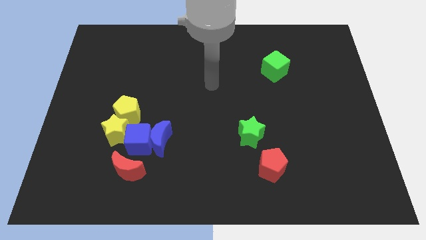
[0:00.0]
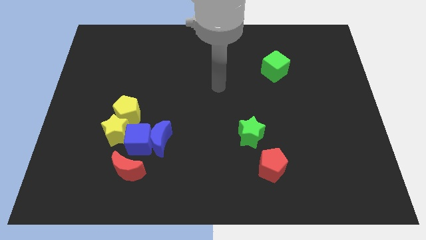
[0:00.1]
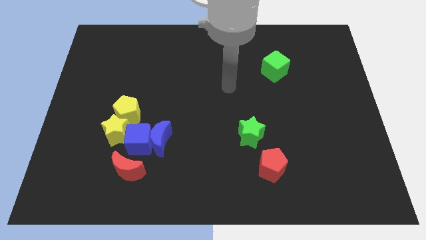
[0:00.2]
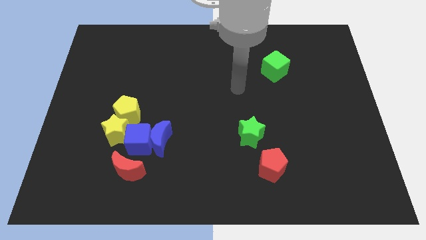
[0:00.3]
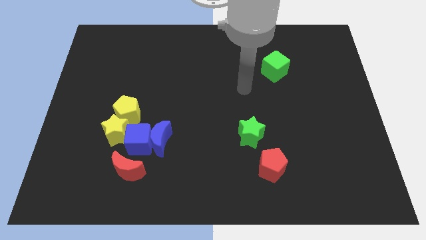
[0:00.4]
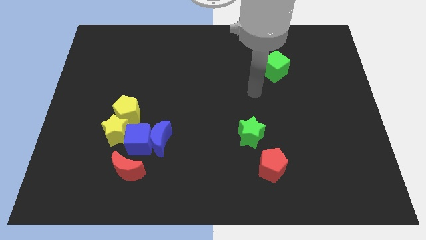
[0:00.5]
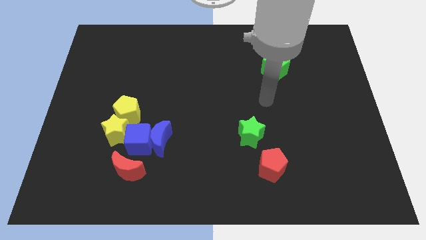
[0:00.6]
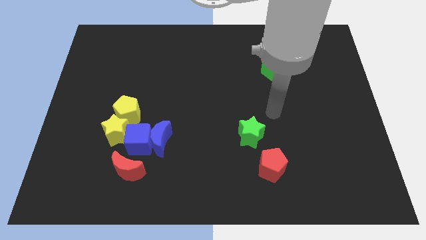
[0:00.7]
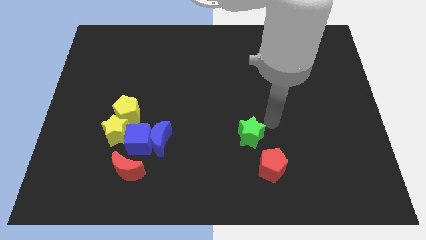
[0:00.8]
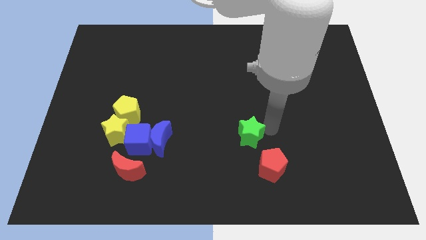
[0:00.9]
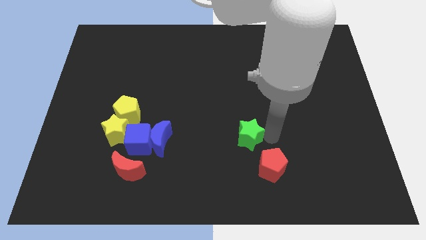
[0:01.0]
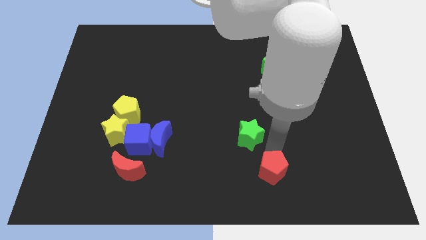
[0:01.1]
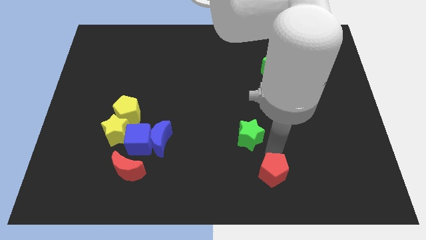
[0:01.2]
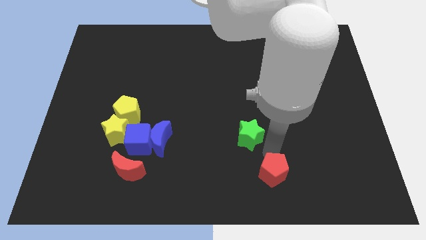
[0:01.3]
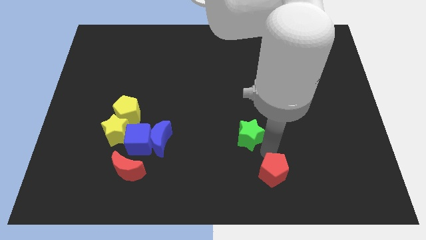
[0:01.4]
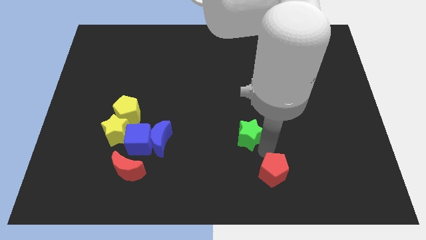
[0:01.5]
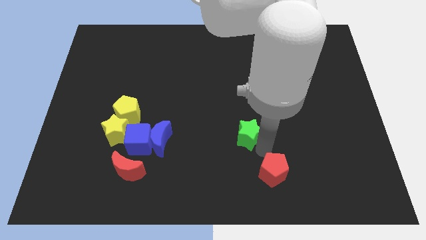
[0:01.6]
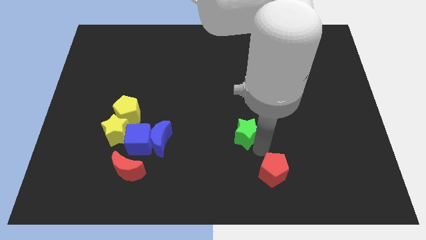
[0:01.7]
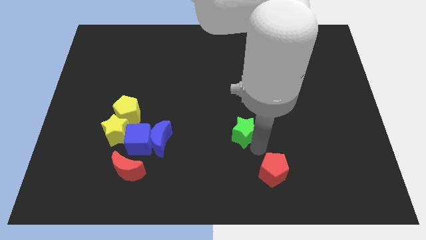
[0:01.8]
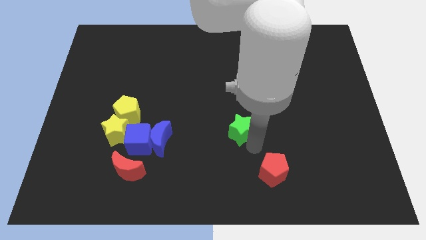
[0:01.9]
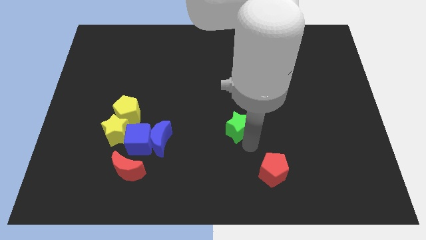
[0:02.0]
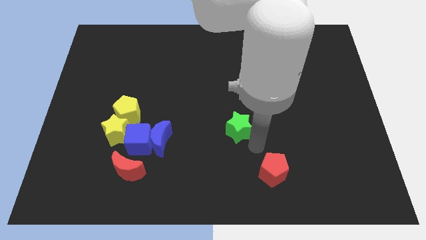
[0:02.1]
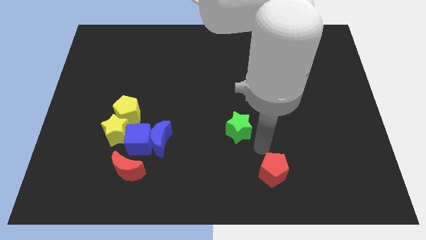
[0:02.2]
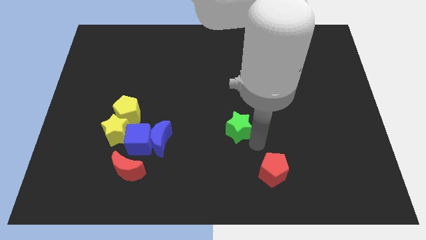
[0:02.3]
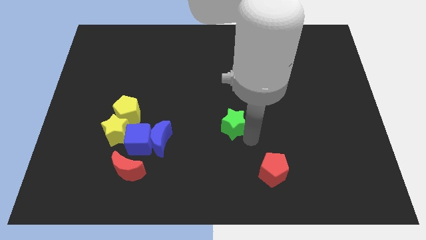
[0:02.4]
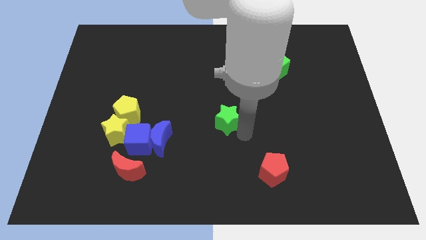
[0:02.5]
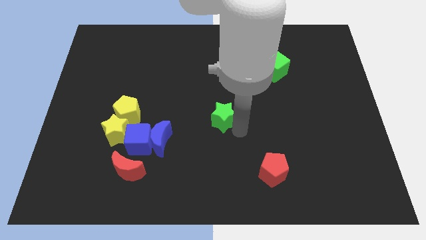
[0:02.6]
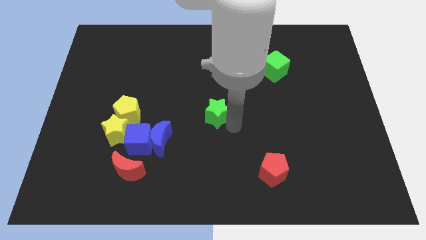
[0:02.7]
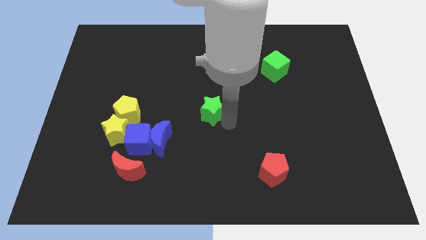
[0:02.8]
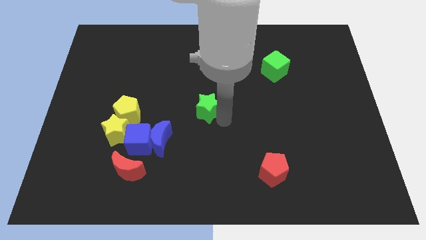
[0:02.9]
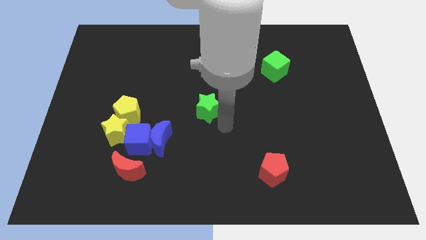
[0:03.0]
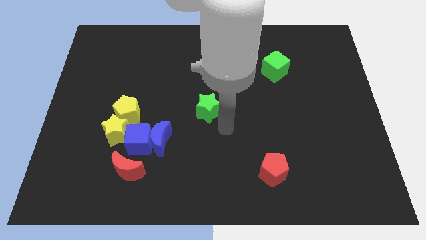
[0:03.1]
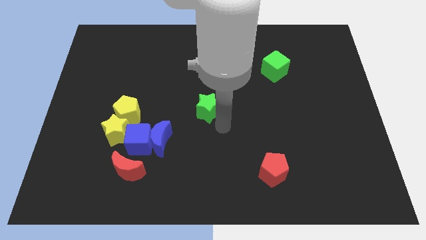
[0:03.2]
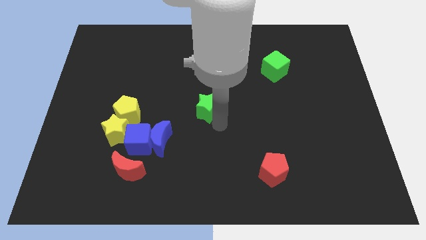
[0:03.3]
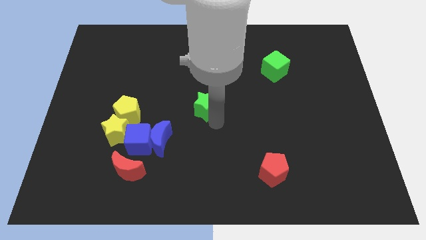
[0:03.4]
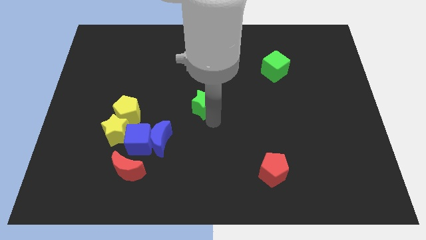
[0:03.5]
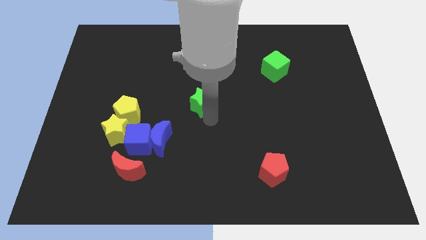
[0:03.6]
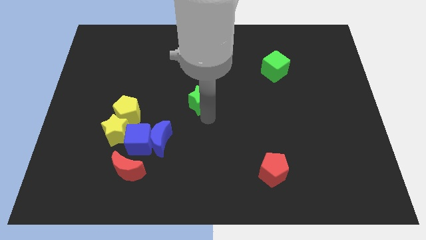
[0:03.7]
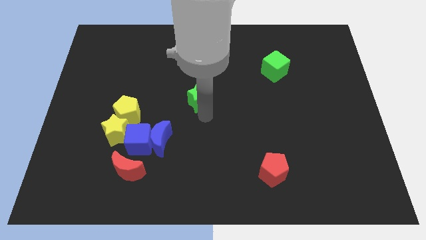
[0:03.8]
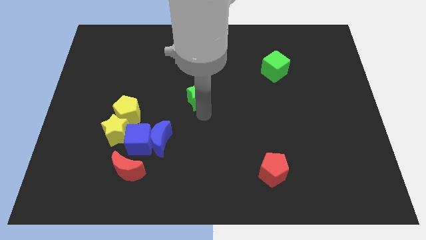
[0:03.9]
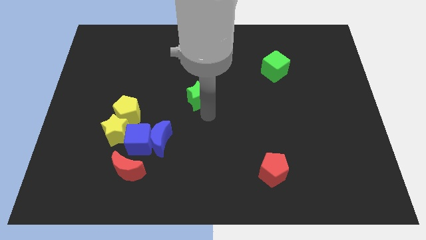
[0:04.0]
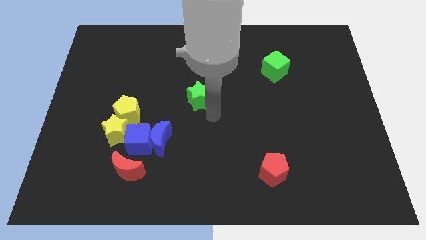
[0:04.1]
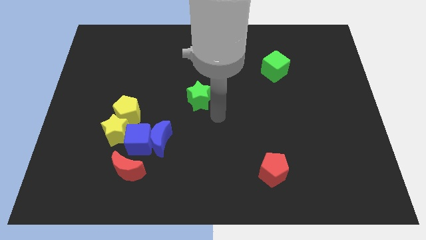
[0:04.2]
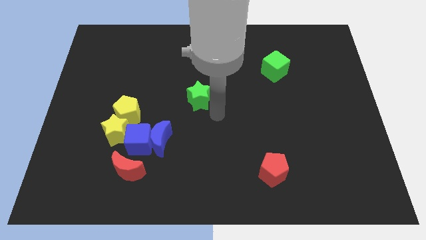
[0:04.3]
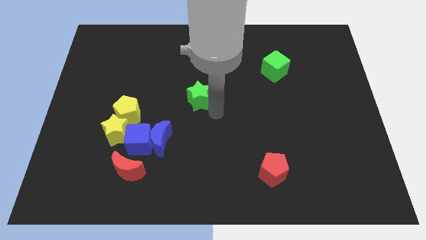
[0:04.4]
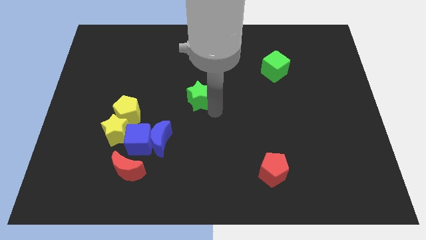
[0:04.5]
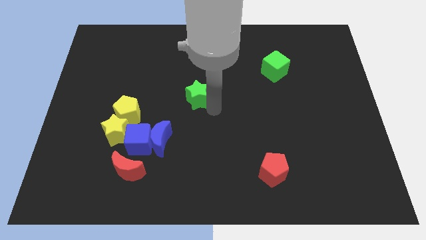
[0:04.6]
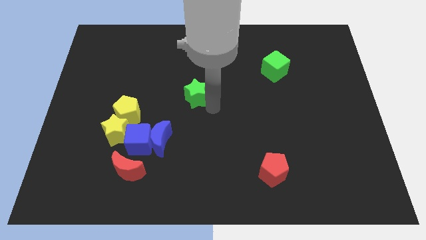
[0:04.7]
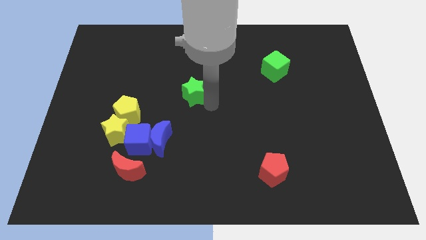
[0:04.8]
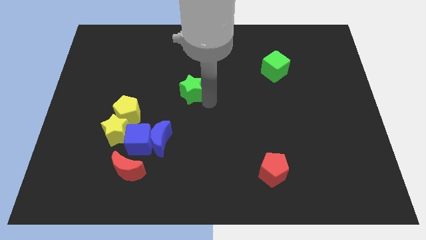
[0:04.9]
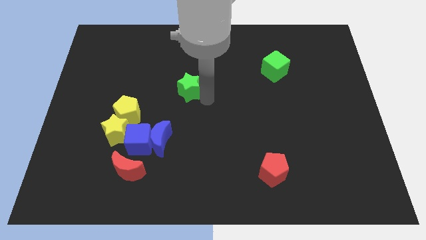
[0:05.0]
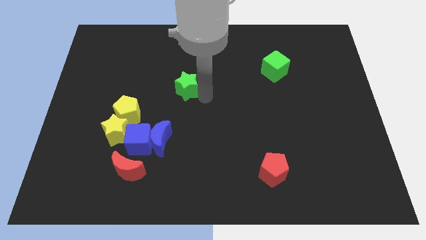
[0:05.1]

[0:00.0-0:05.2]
move the green star upwards and left diagonally

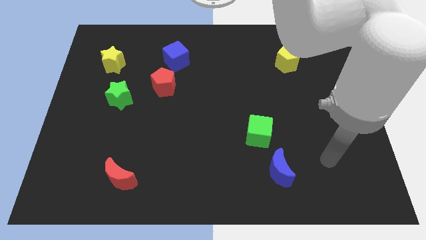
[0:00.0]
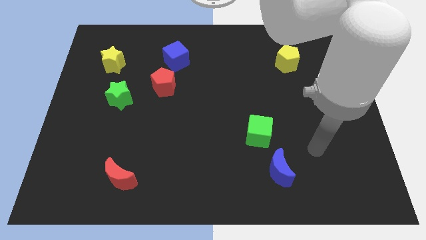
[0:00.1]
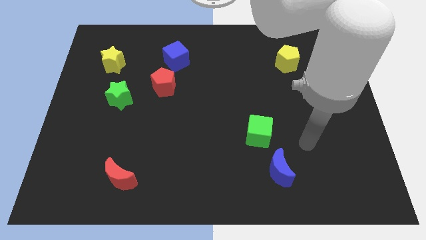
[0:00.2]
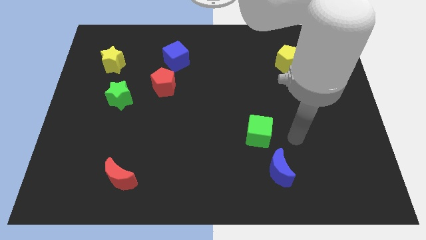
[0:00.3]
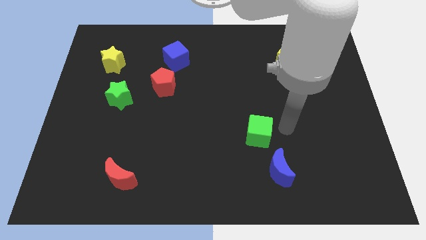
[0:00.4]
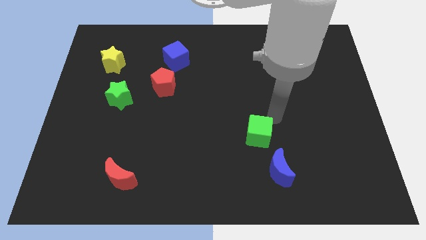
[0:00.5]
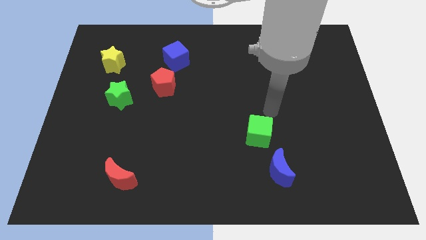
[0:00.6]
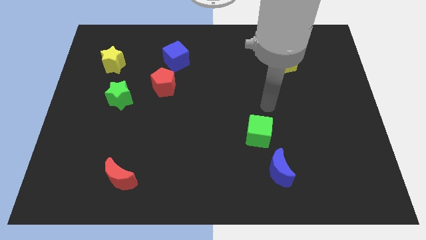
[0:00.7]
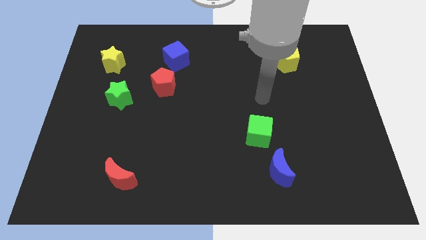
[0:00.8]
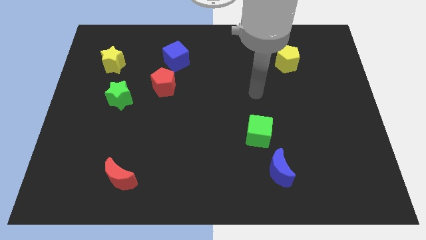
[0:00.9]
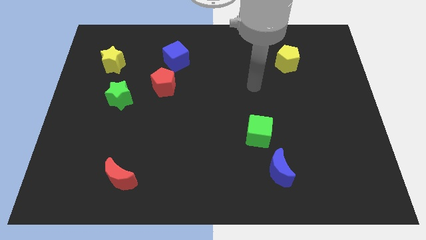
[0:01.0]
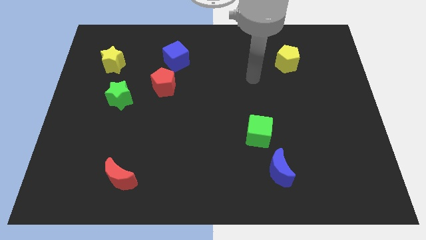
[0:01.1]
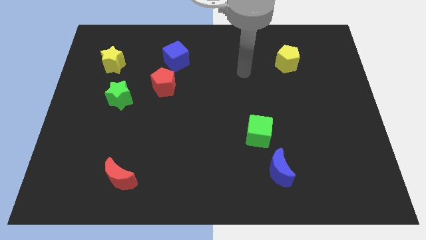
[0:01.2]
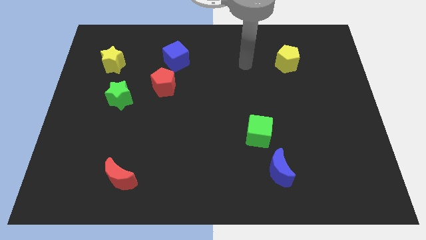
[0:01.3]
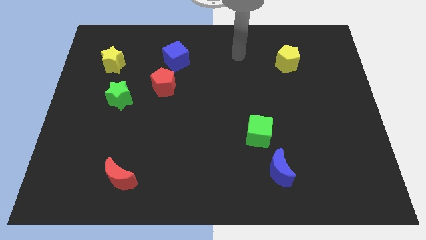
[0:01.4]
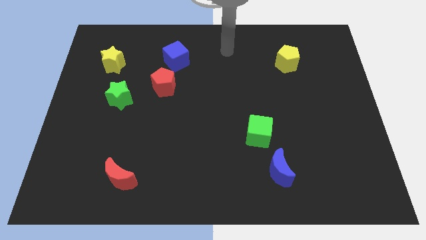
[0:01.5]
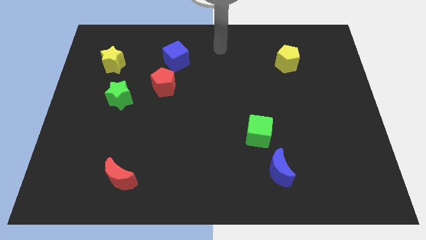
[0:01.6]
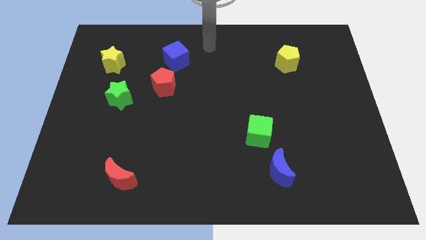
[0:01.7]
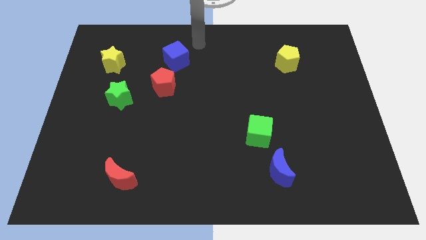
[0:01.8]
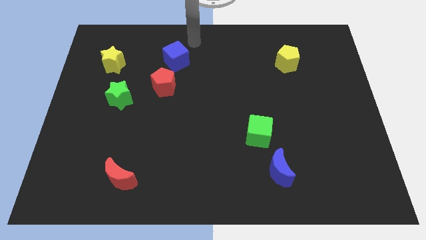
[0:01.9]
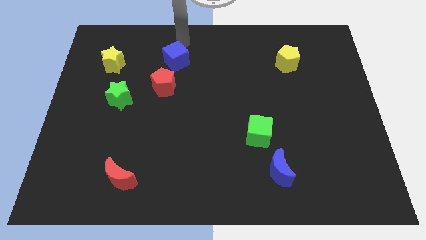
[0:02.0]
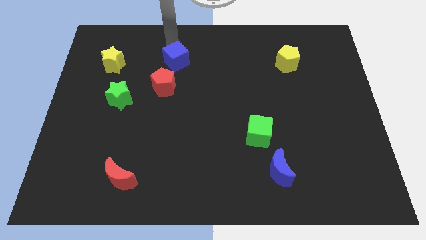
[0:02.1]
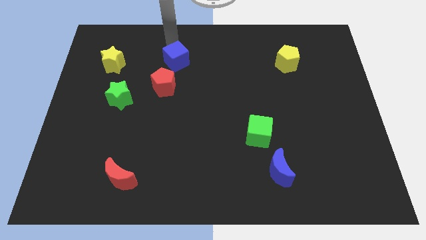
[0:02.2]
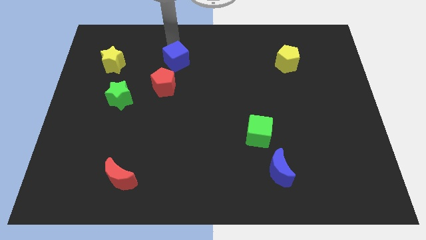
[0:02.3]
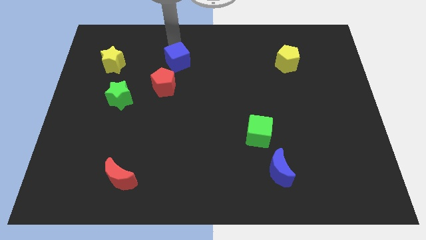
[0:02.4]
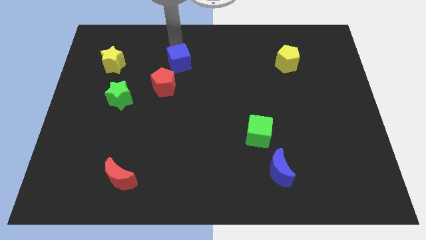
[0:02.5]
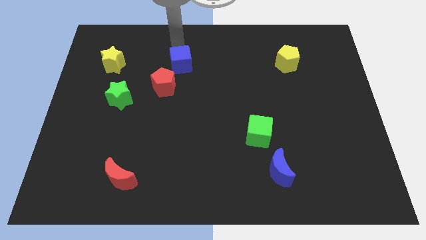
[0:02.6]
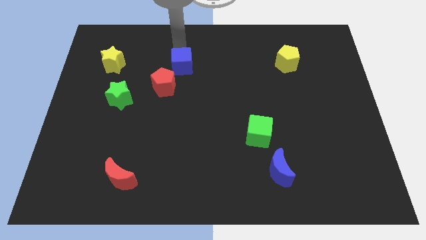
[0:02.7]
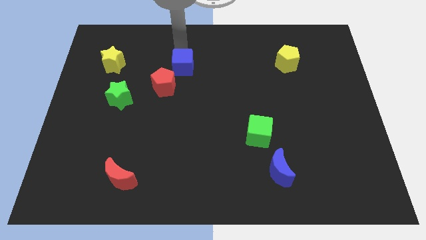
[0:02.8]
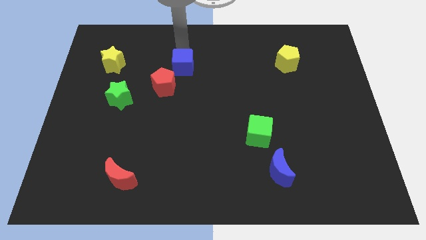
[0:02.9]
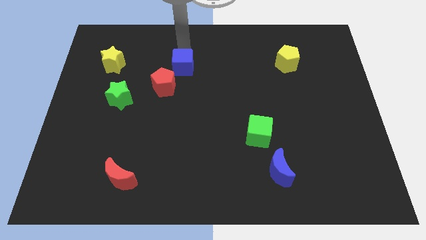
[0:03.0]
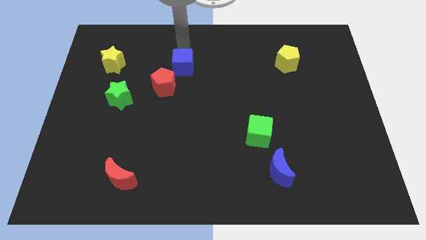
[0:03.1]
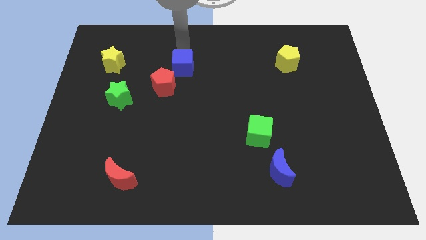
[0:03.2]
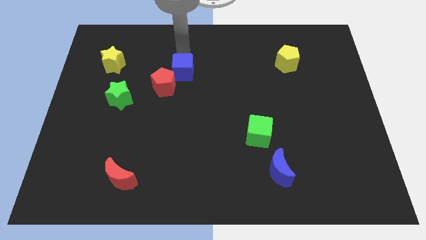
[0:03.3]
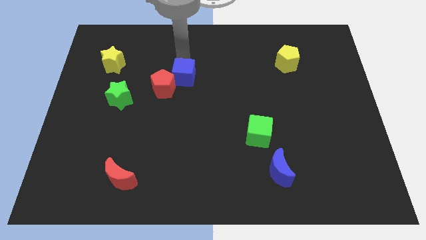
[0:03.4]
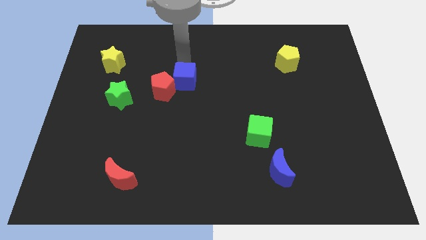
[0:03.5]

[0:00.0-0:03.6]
move the blue cube a little down
